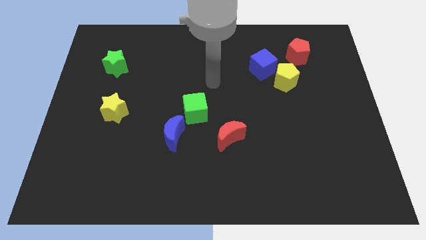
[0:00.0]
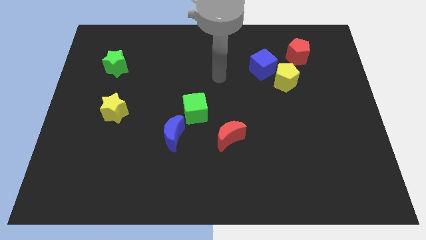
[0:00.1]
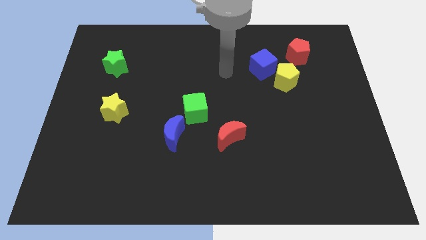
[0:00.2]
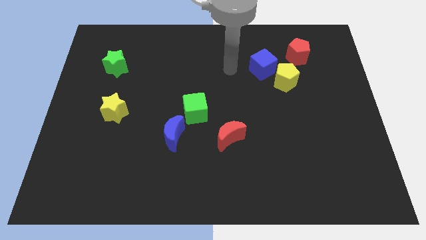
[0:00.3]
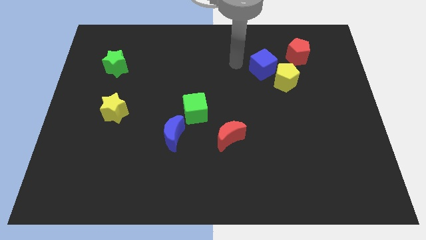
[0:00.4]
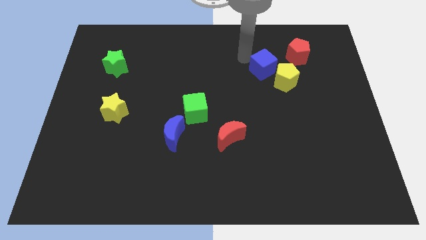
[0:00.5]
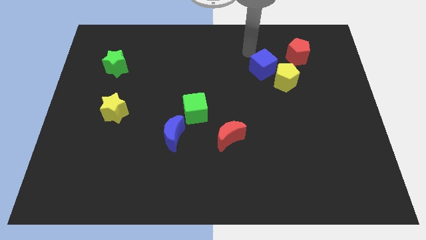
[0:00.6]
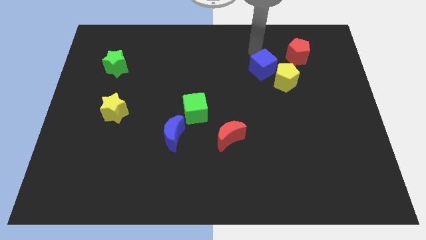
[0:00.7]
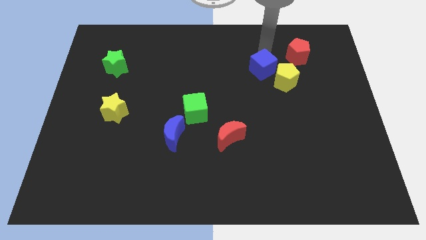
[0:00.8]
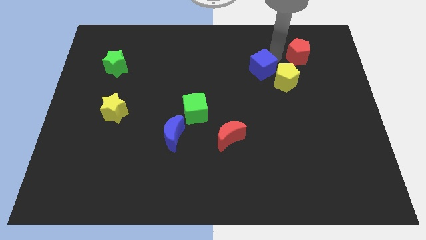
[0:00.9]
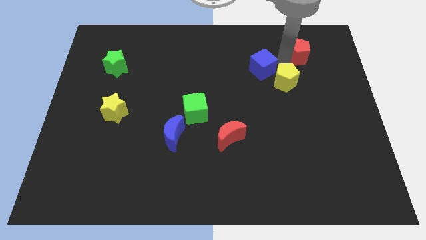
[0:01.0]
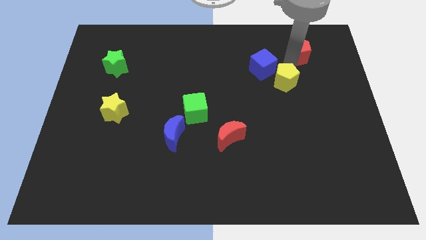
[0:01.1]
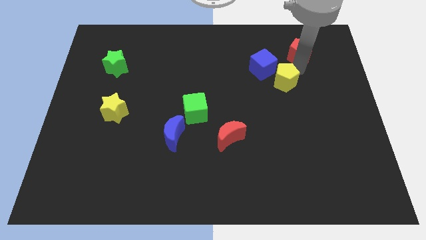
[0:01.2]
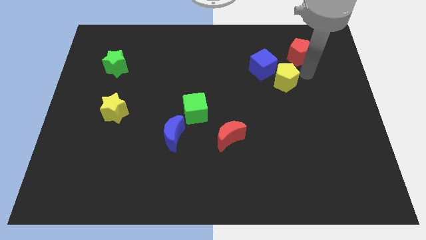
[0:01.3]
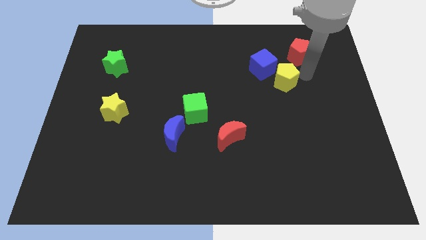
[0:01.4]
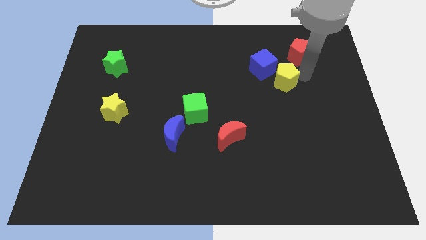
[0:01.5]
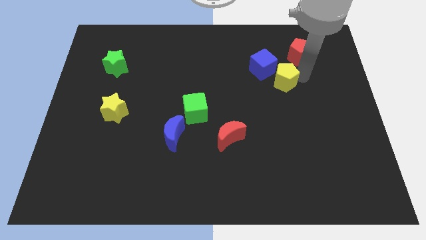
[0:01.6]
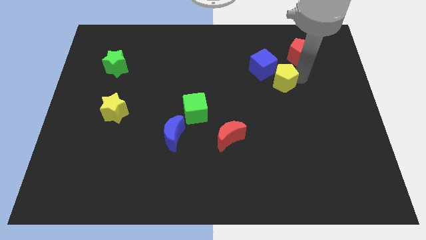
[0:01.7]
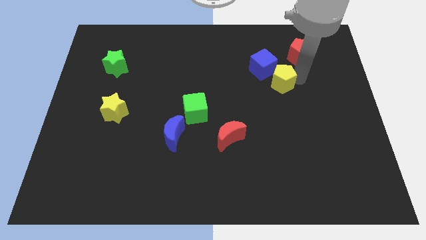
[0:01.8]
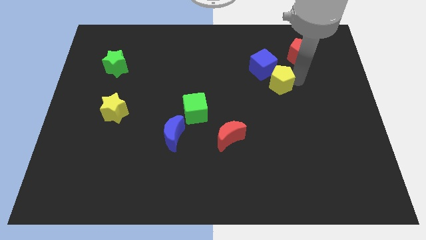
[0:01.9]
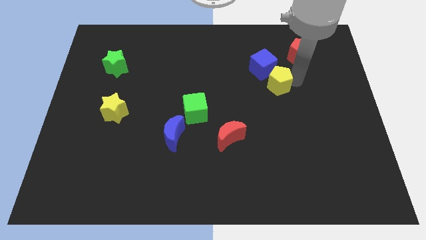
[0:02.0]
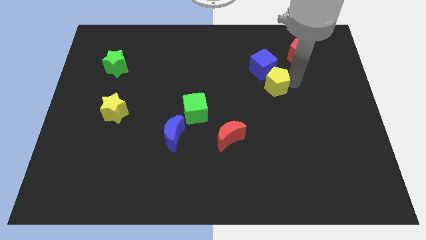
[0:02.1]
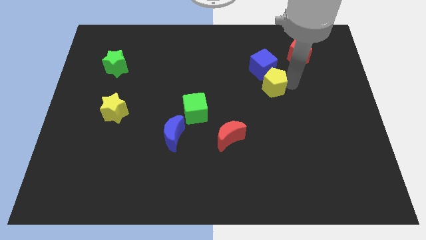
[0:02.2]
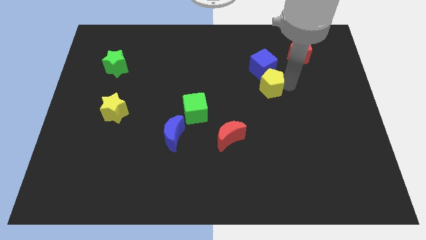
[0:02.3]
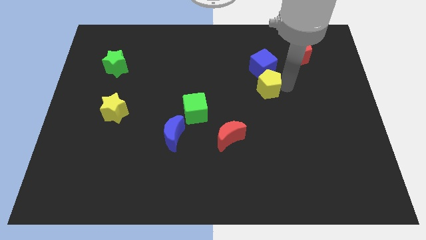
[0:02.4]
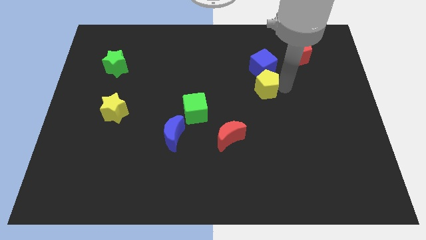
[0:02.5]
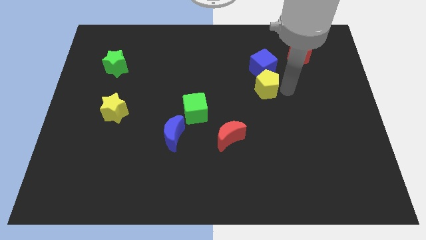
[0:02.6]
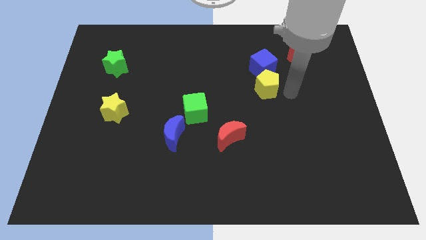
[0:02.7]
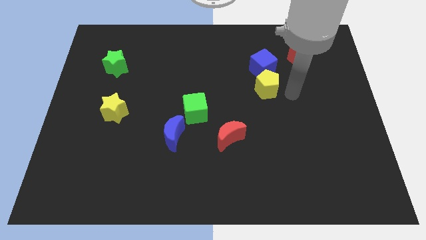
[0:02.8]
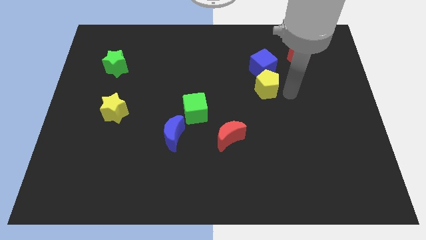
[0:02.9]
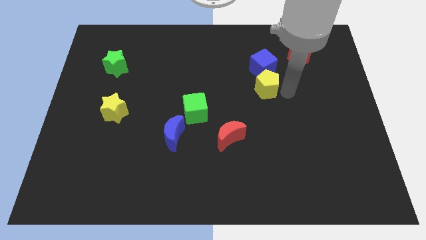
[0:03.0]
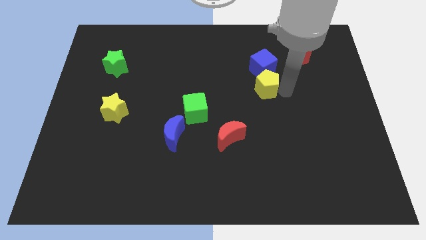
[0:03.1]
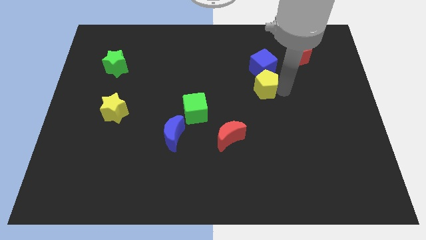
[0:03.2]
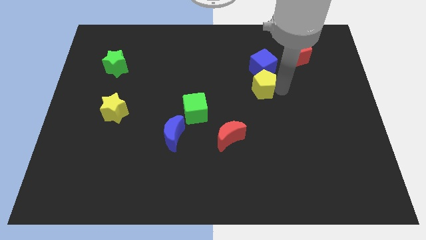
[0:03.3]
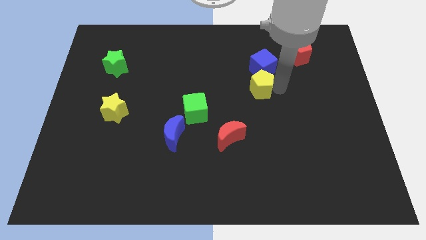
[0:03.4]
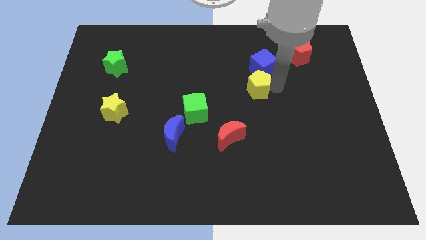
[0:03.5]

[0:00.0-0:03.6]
move the yellow pentagon a bit left

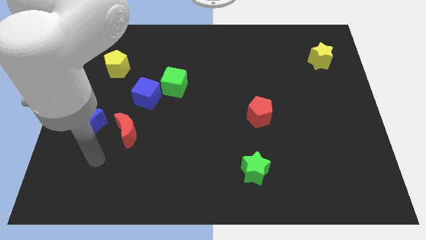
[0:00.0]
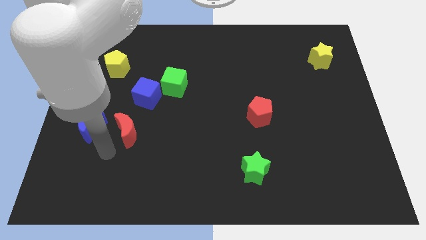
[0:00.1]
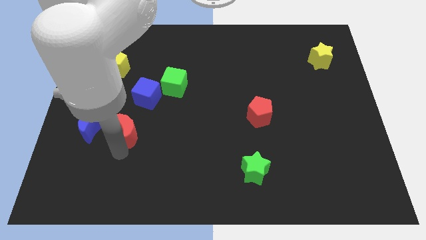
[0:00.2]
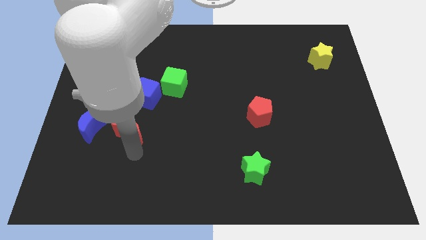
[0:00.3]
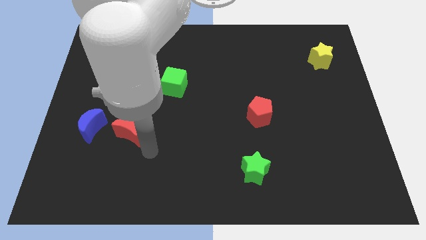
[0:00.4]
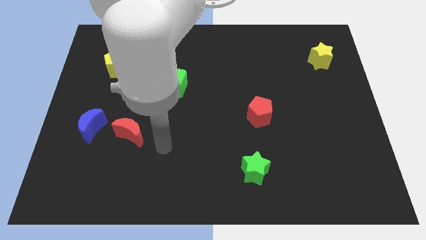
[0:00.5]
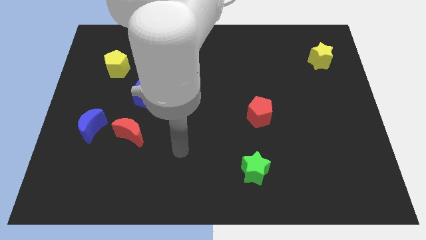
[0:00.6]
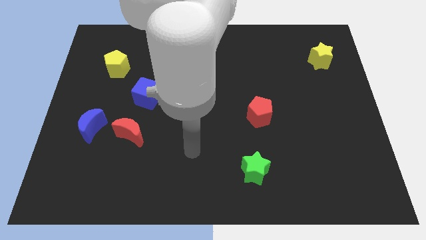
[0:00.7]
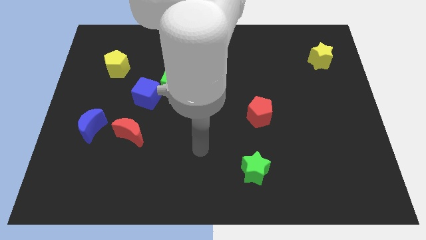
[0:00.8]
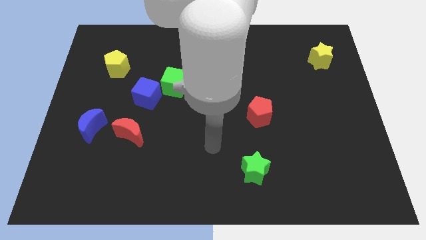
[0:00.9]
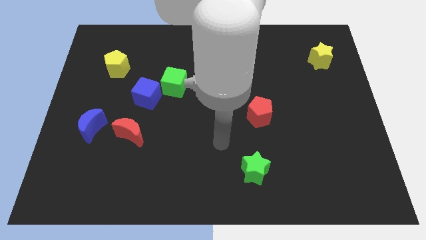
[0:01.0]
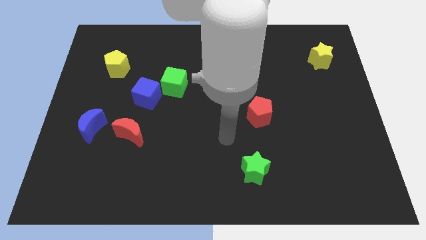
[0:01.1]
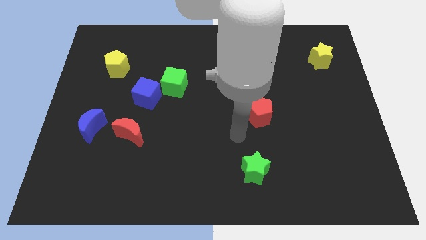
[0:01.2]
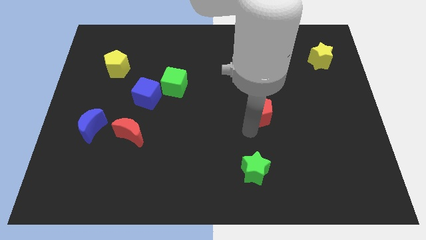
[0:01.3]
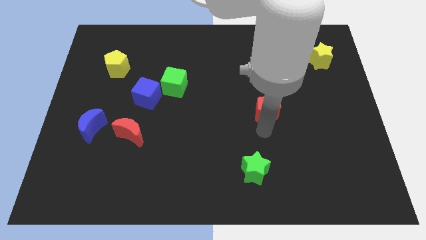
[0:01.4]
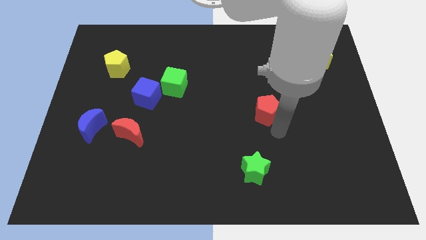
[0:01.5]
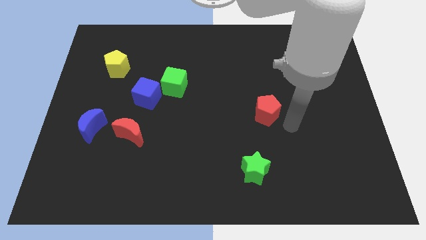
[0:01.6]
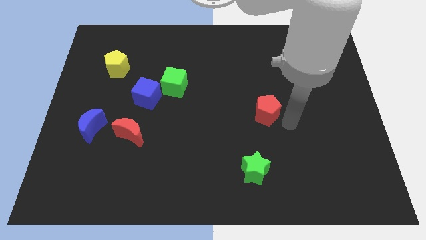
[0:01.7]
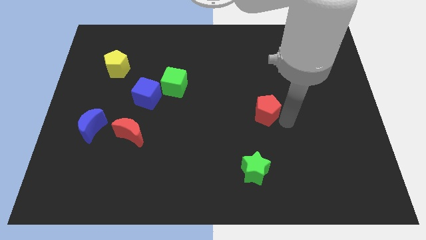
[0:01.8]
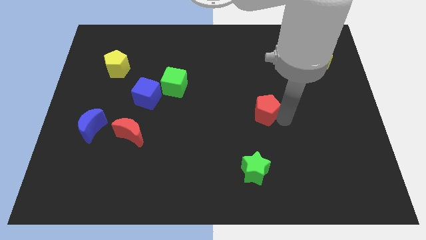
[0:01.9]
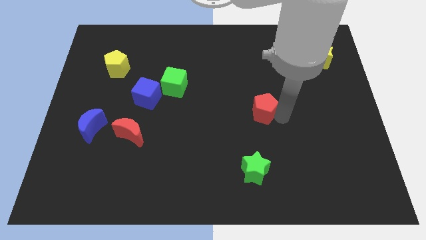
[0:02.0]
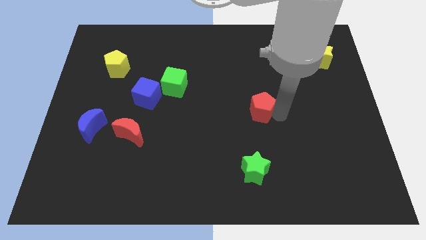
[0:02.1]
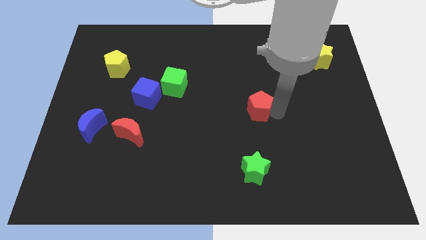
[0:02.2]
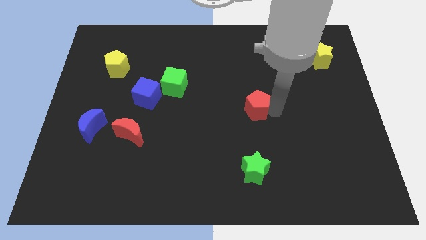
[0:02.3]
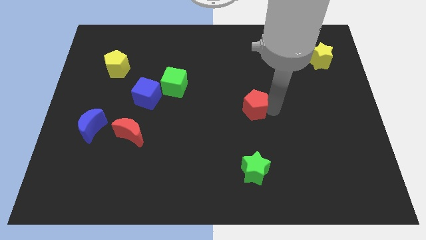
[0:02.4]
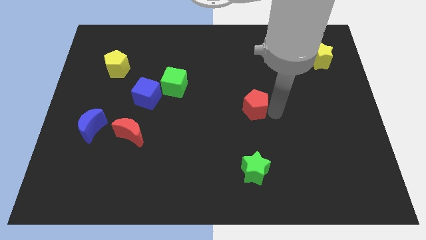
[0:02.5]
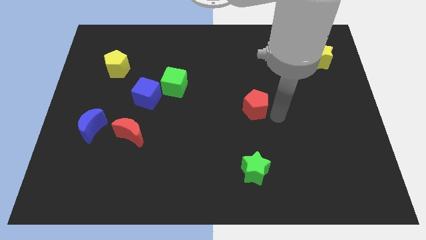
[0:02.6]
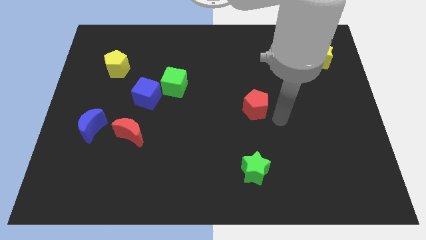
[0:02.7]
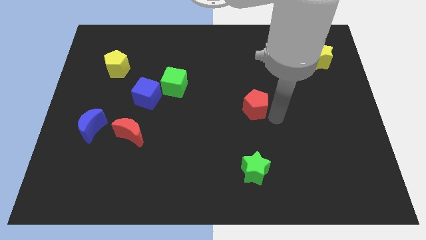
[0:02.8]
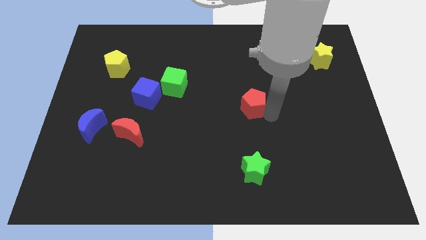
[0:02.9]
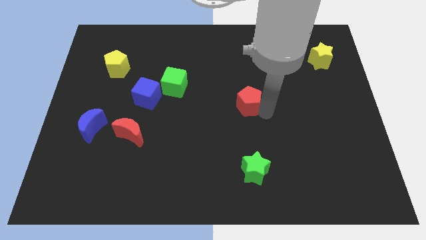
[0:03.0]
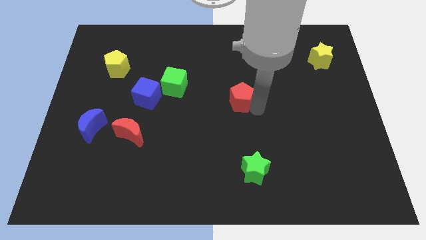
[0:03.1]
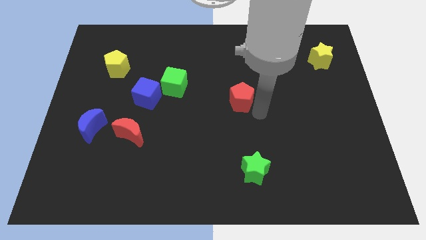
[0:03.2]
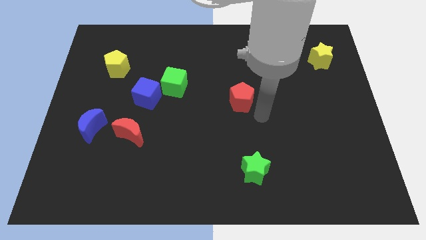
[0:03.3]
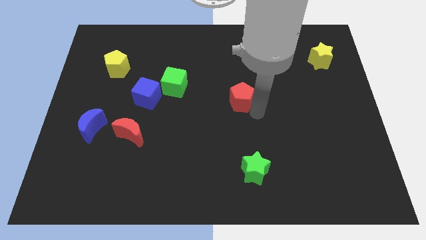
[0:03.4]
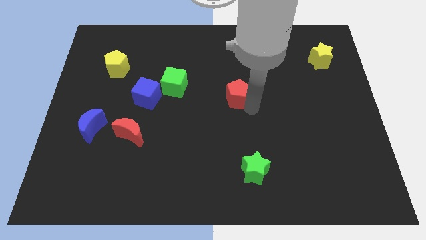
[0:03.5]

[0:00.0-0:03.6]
slide the red pentagon up and then to the left a little

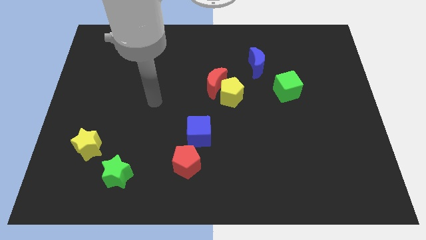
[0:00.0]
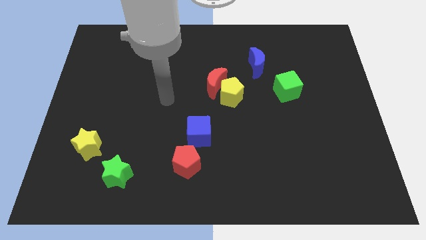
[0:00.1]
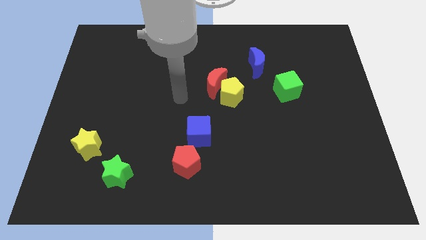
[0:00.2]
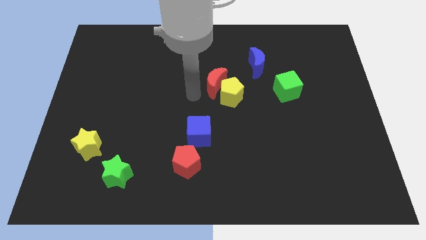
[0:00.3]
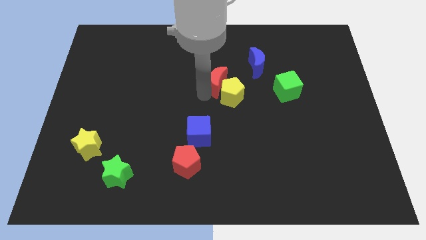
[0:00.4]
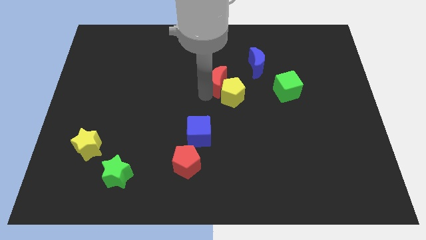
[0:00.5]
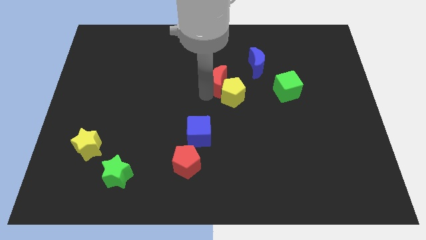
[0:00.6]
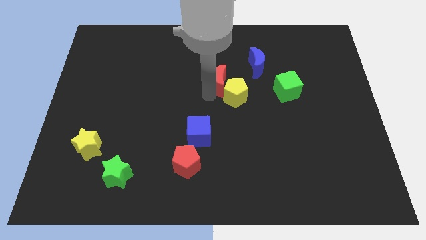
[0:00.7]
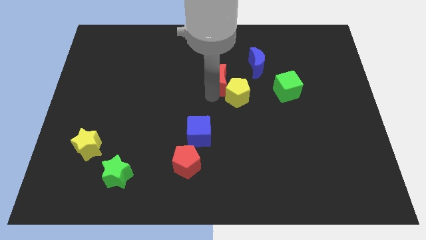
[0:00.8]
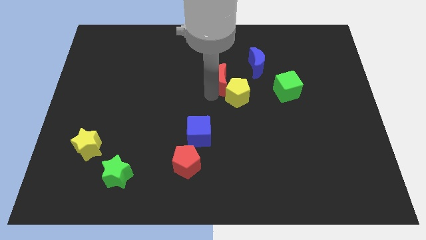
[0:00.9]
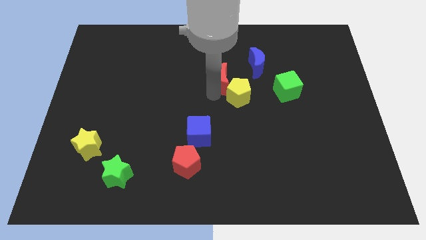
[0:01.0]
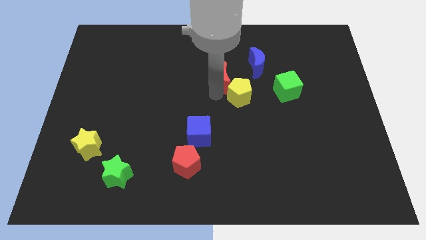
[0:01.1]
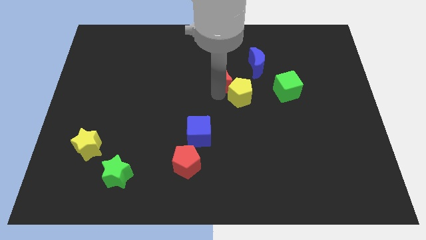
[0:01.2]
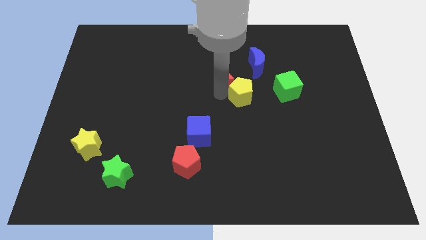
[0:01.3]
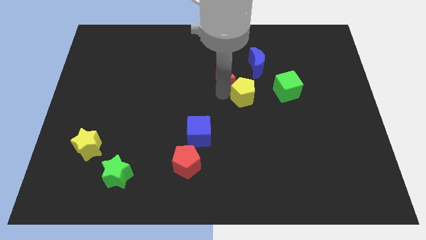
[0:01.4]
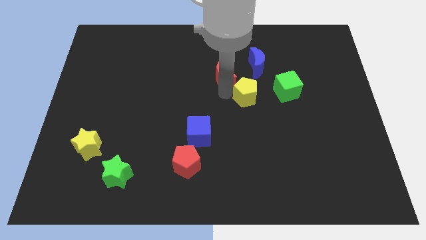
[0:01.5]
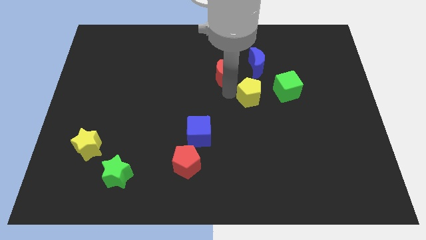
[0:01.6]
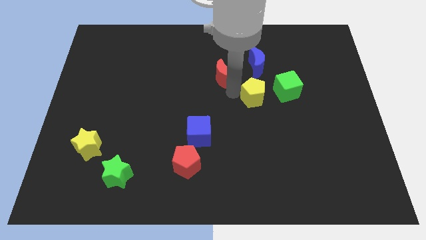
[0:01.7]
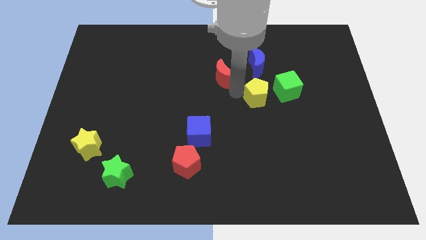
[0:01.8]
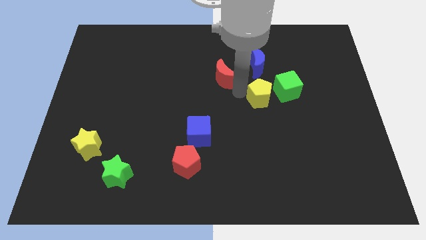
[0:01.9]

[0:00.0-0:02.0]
push the yellow pentagon slightly to the right
